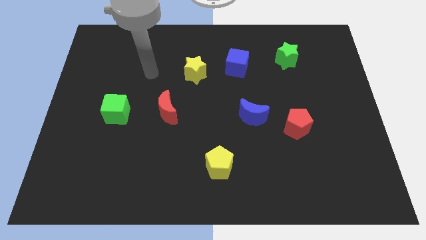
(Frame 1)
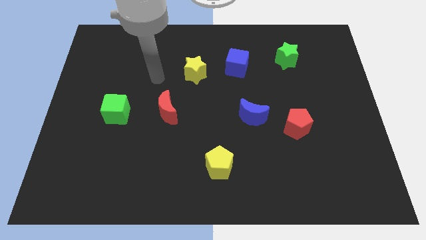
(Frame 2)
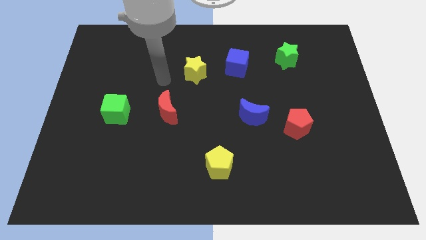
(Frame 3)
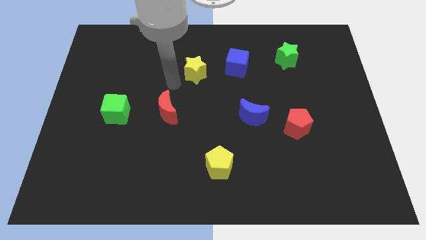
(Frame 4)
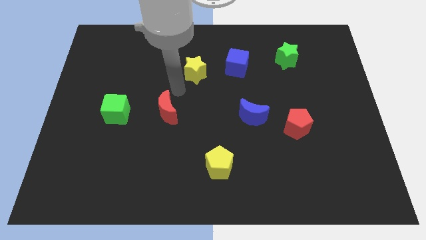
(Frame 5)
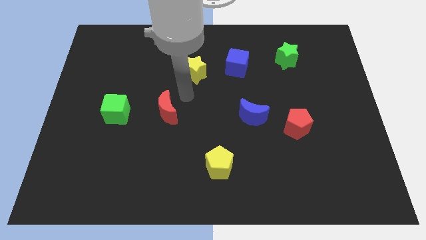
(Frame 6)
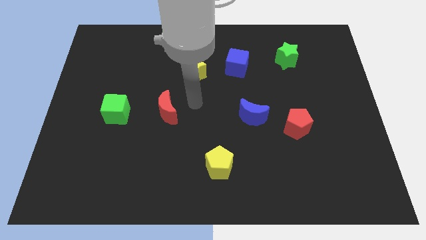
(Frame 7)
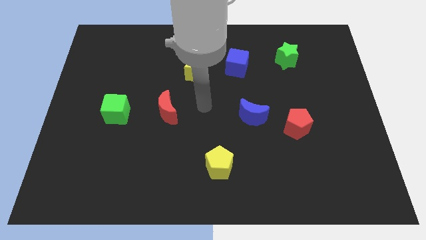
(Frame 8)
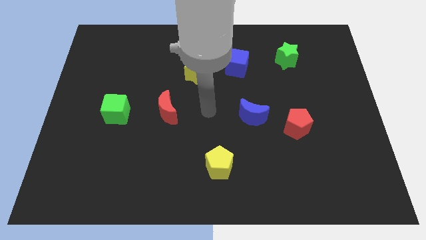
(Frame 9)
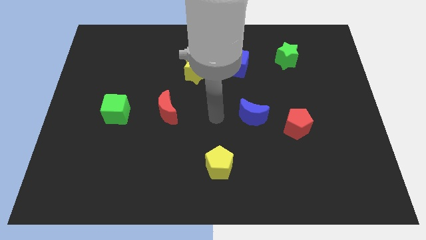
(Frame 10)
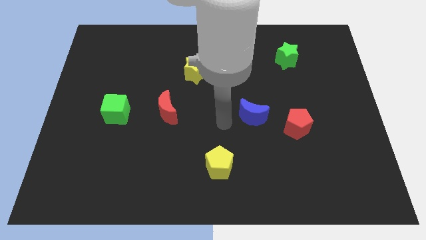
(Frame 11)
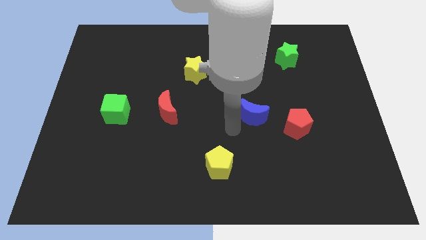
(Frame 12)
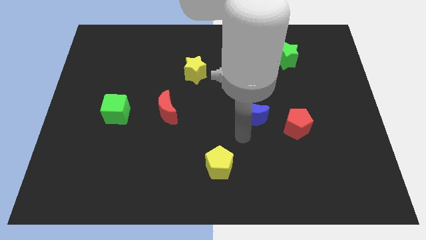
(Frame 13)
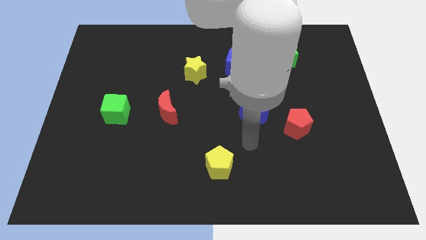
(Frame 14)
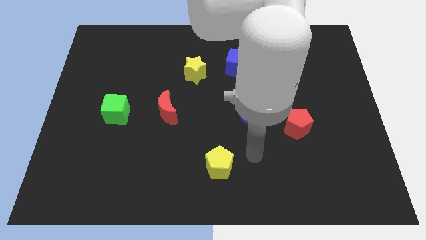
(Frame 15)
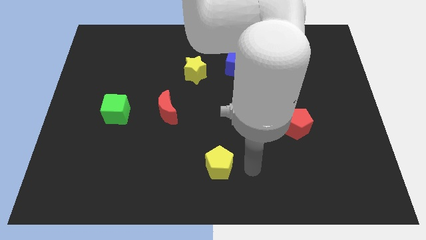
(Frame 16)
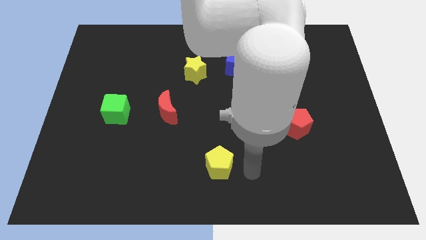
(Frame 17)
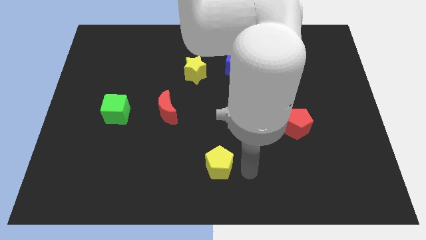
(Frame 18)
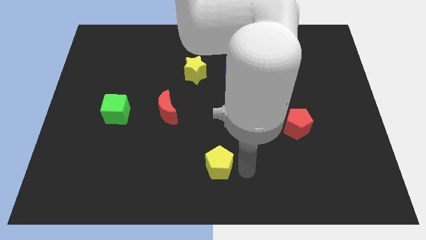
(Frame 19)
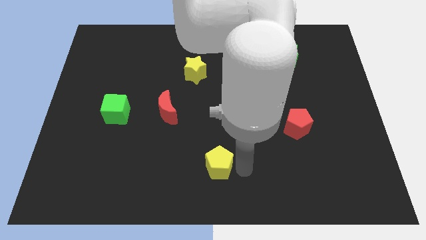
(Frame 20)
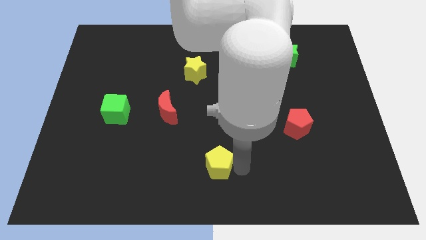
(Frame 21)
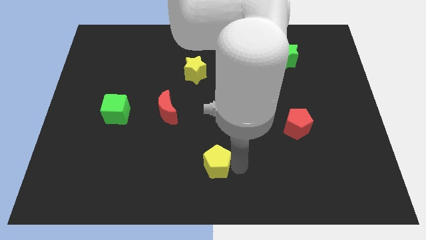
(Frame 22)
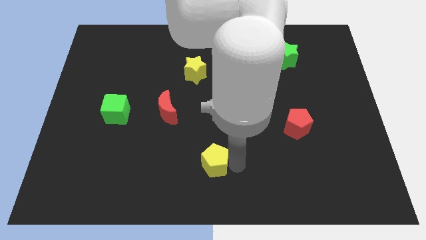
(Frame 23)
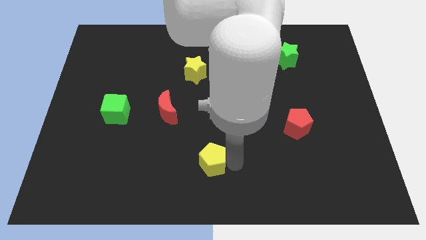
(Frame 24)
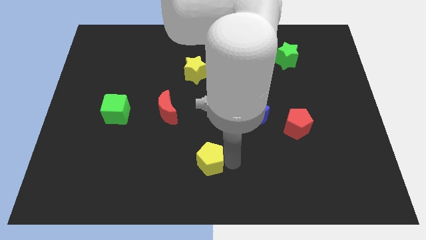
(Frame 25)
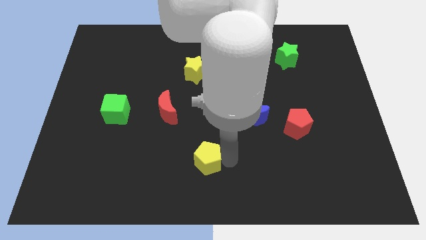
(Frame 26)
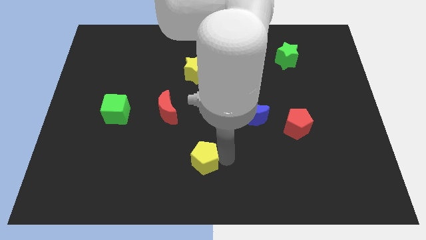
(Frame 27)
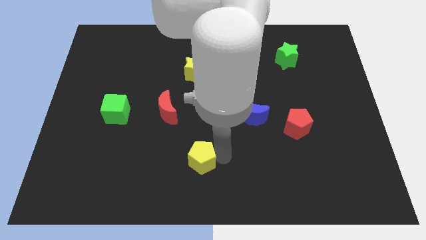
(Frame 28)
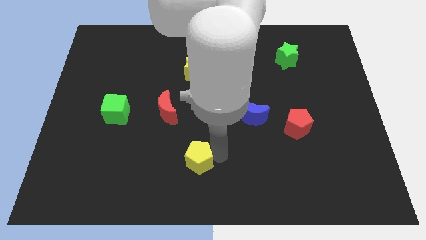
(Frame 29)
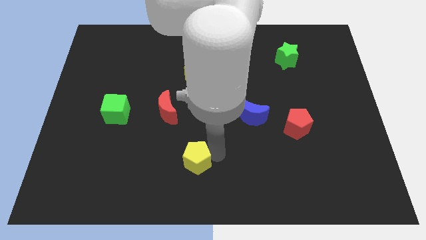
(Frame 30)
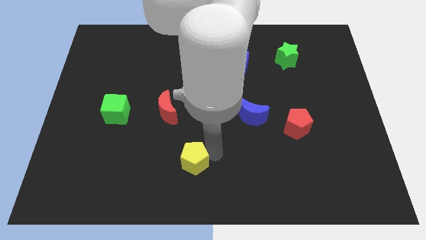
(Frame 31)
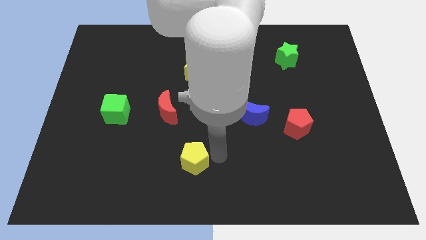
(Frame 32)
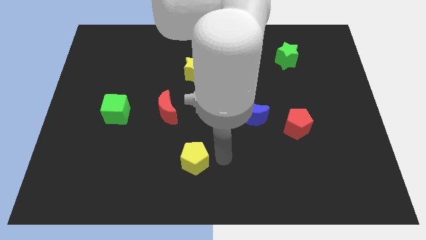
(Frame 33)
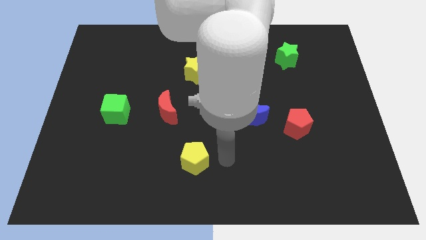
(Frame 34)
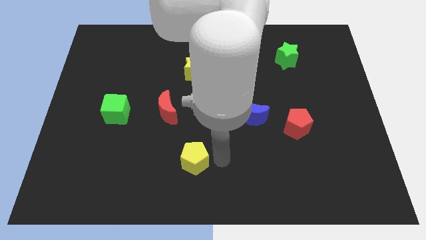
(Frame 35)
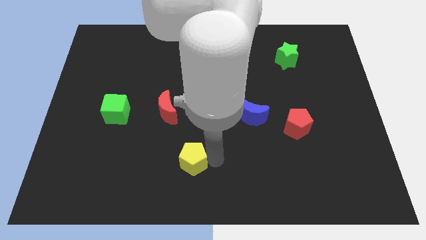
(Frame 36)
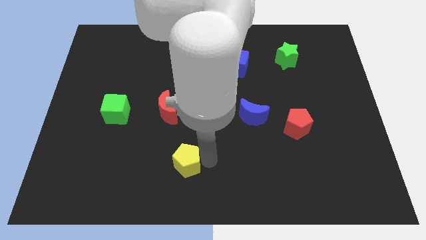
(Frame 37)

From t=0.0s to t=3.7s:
push the yellow pentagon a bit left

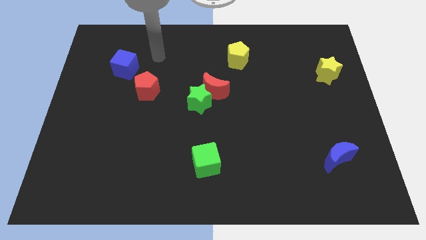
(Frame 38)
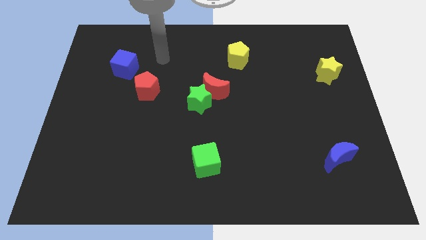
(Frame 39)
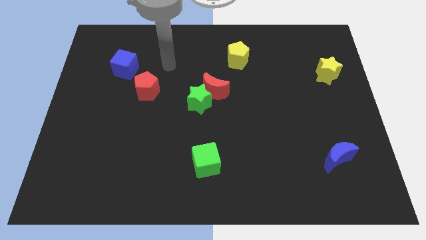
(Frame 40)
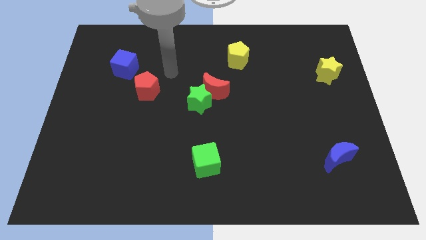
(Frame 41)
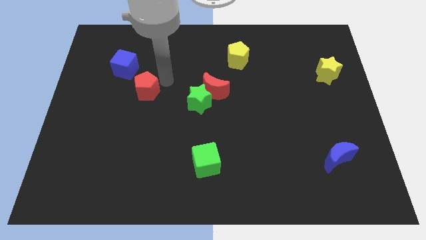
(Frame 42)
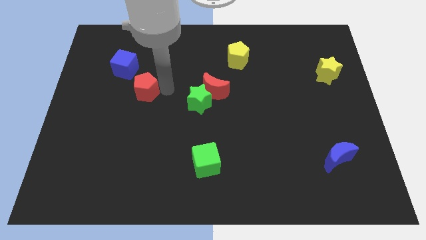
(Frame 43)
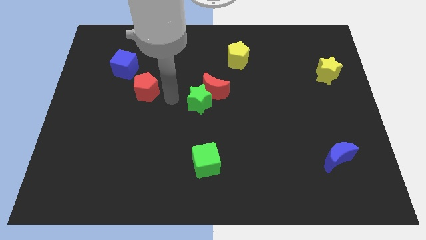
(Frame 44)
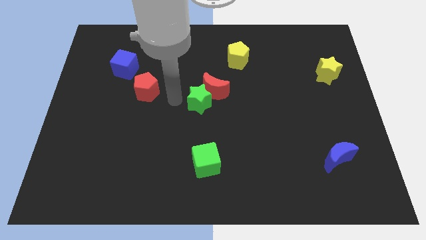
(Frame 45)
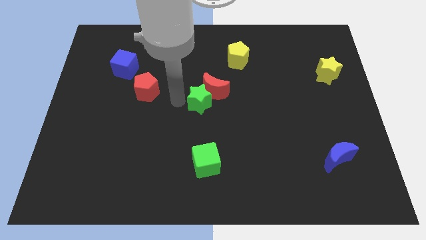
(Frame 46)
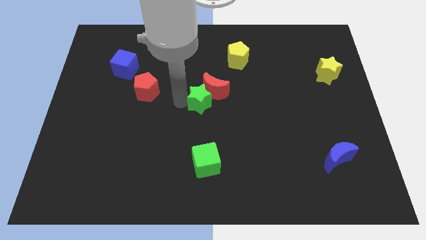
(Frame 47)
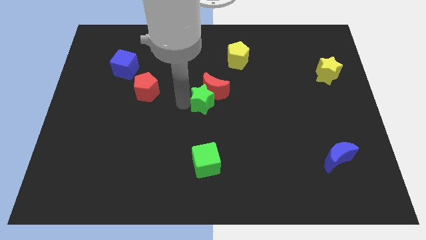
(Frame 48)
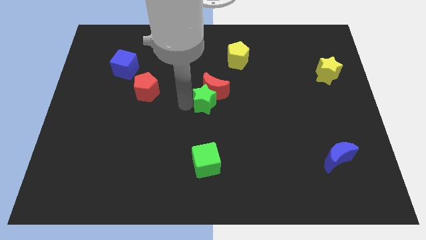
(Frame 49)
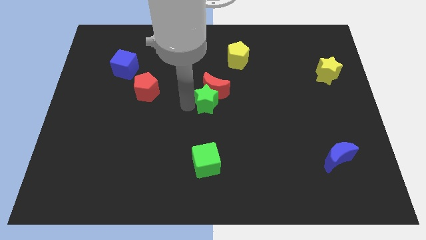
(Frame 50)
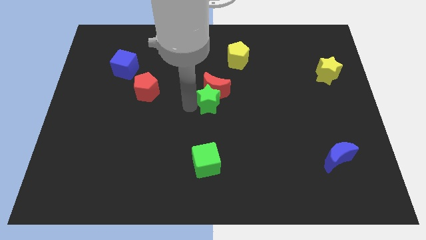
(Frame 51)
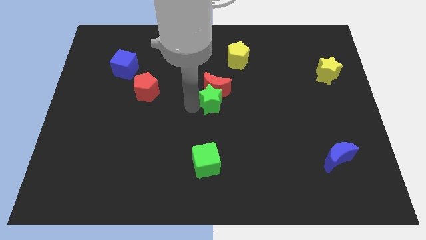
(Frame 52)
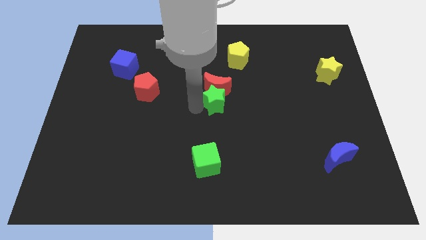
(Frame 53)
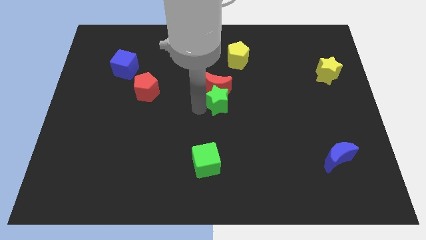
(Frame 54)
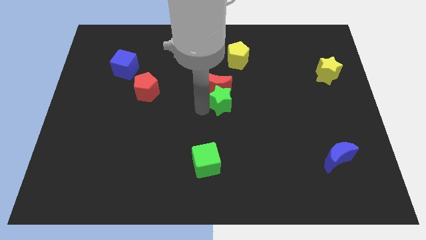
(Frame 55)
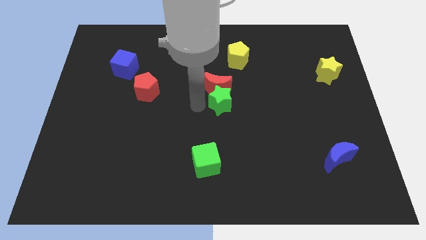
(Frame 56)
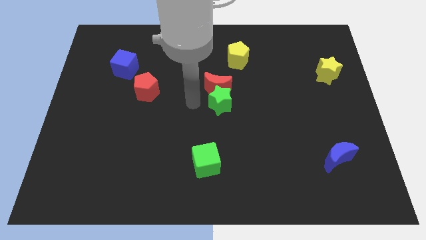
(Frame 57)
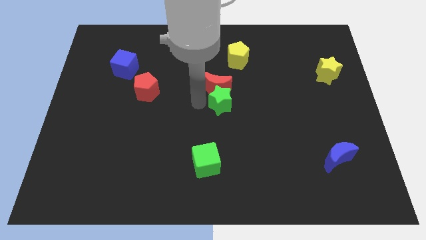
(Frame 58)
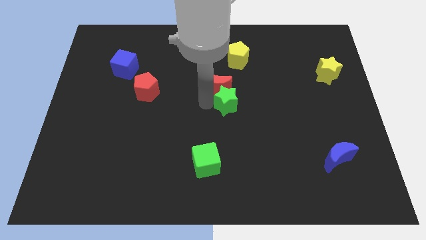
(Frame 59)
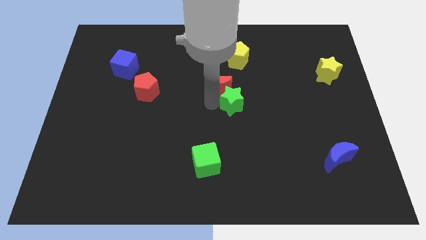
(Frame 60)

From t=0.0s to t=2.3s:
slide the green star right somewhat

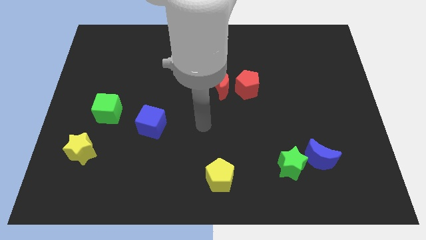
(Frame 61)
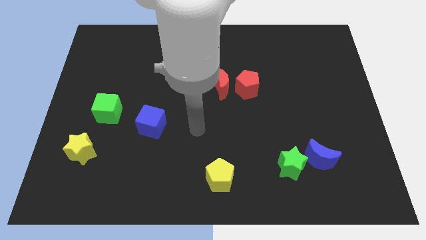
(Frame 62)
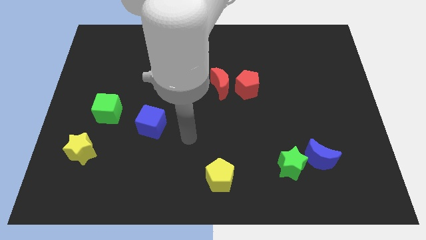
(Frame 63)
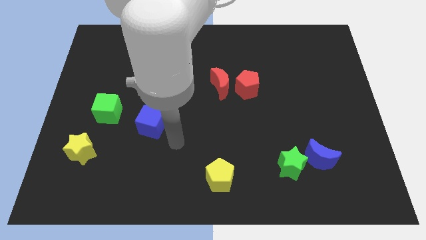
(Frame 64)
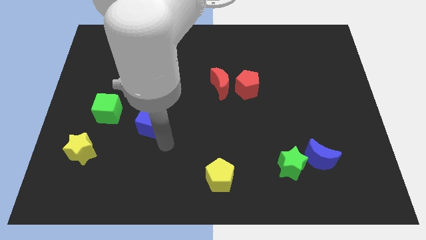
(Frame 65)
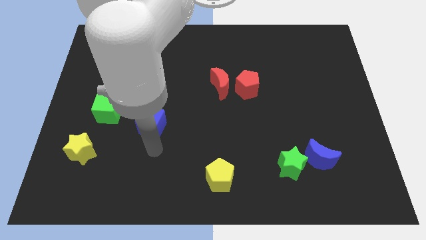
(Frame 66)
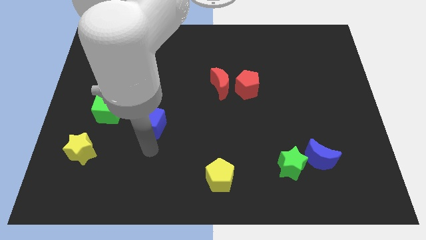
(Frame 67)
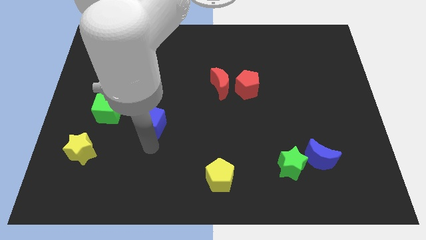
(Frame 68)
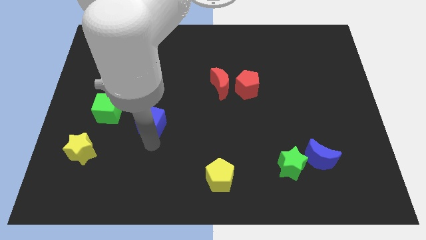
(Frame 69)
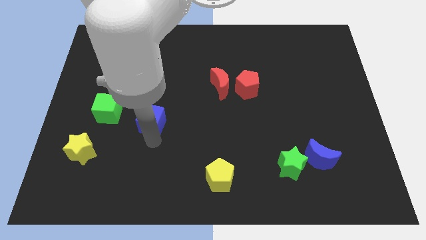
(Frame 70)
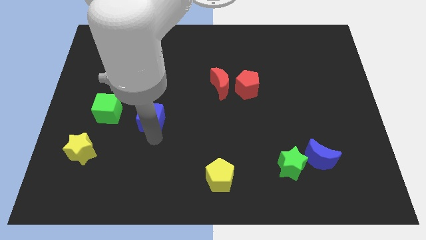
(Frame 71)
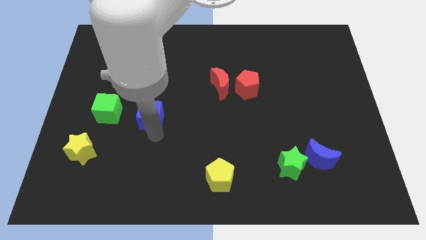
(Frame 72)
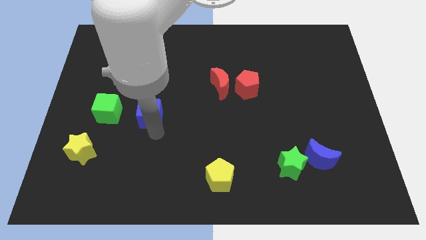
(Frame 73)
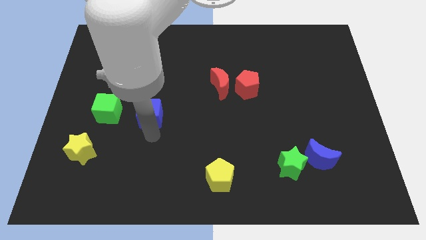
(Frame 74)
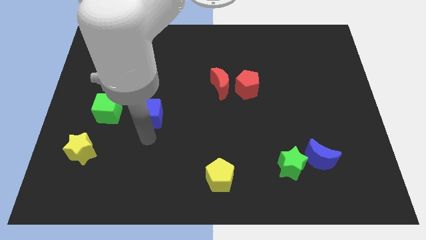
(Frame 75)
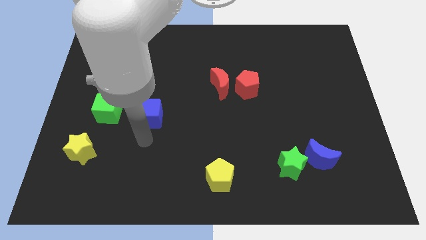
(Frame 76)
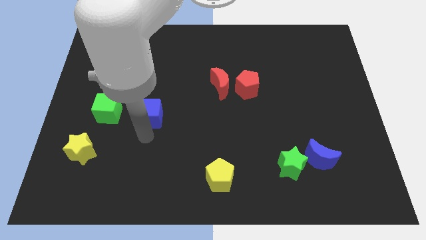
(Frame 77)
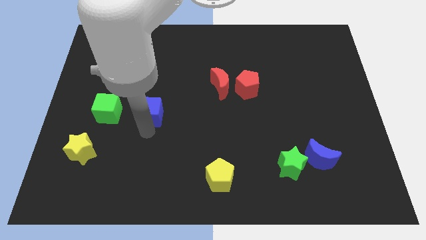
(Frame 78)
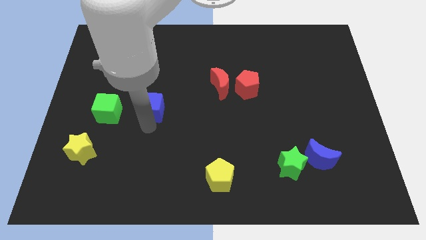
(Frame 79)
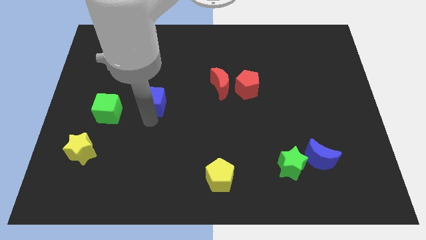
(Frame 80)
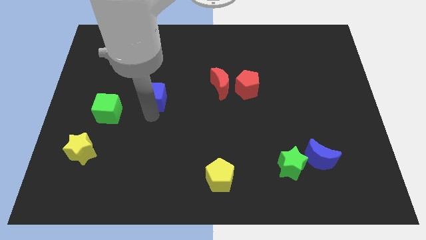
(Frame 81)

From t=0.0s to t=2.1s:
move the blue cube a little bit up
